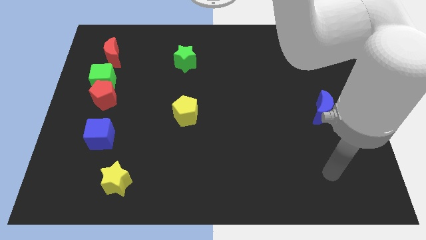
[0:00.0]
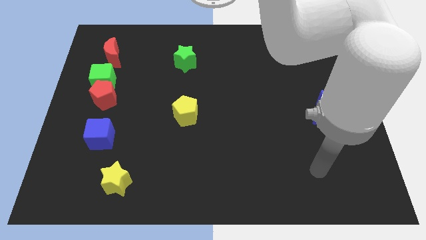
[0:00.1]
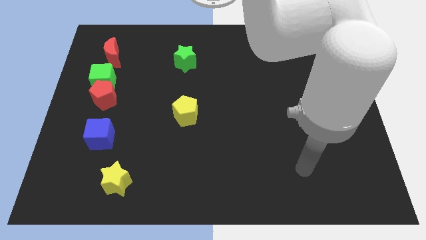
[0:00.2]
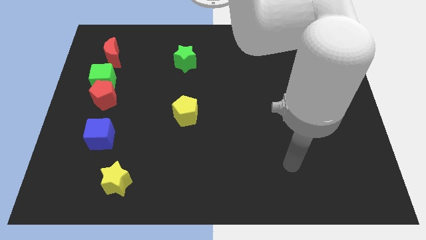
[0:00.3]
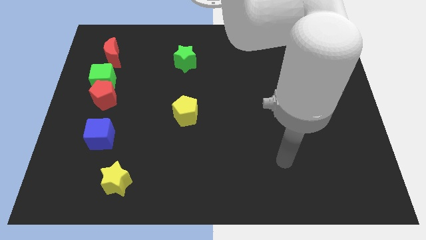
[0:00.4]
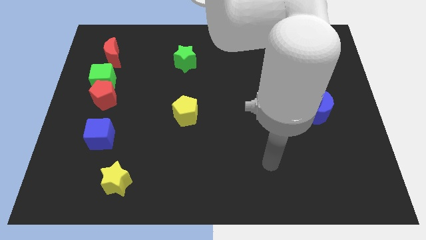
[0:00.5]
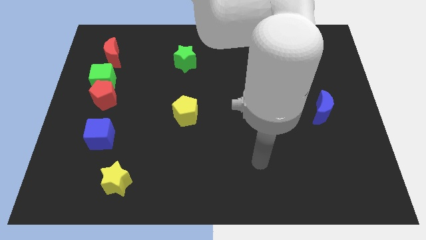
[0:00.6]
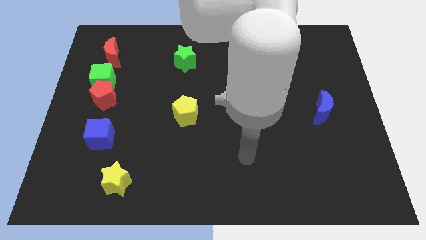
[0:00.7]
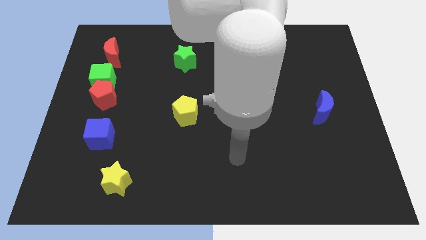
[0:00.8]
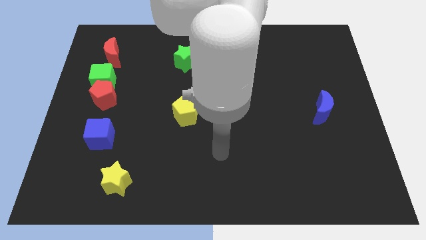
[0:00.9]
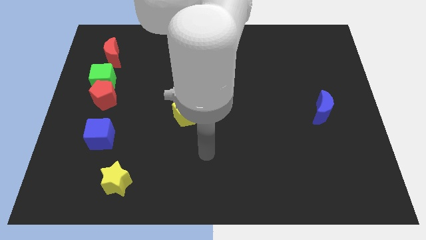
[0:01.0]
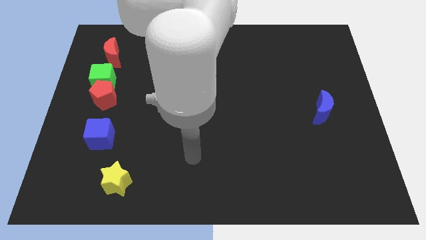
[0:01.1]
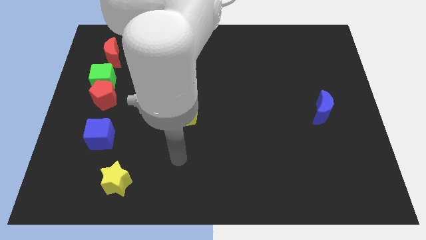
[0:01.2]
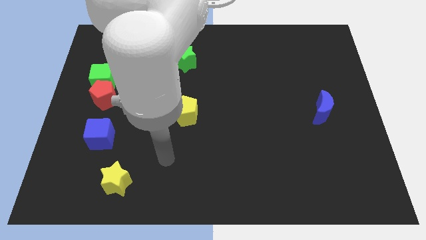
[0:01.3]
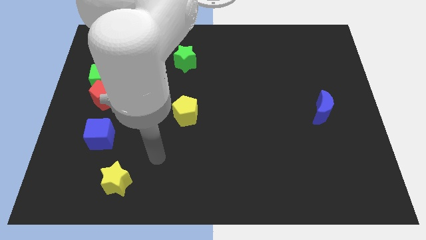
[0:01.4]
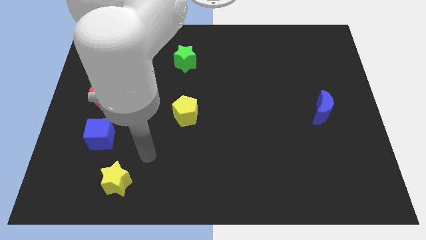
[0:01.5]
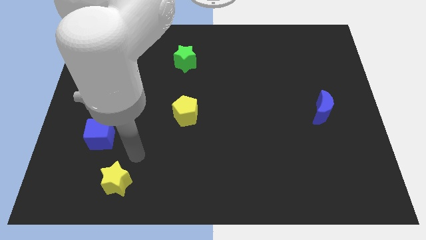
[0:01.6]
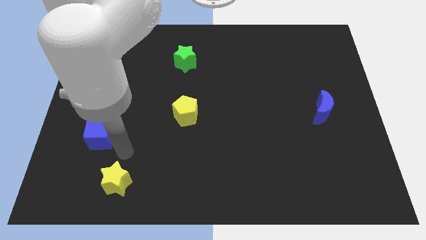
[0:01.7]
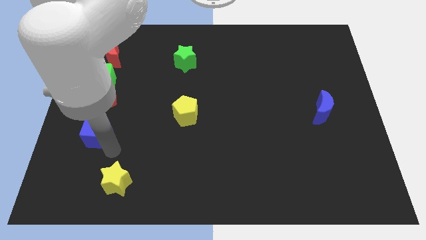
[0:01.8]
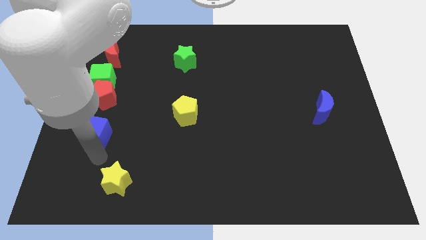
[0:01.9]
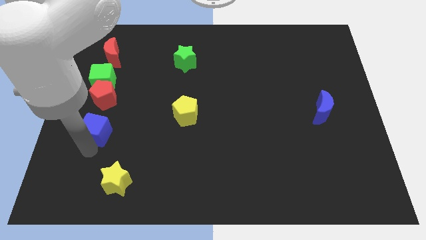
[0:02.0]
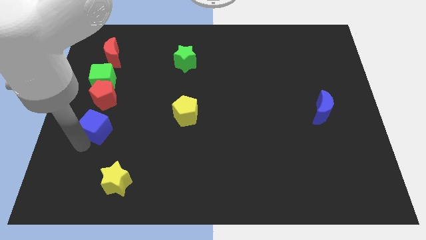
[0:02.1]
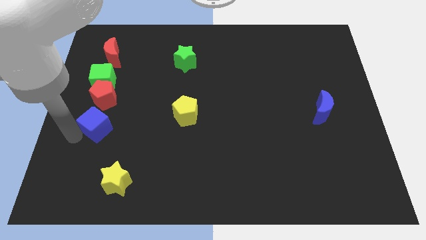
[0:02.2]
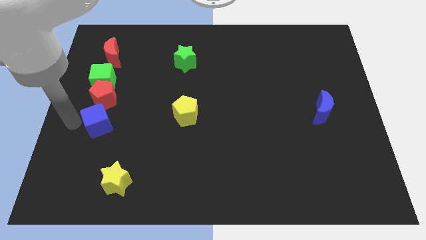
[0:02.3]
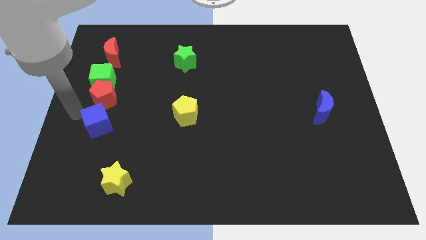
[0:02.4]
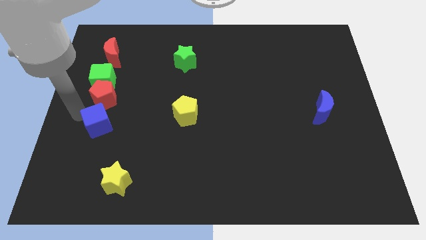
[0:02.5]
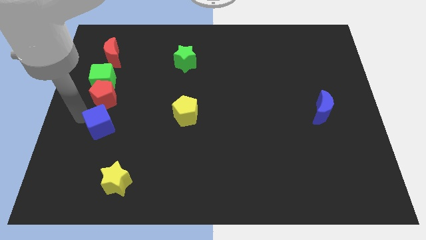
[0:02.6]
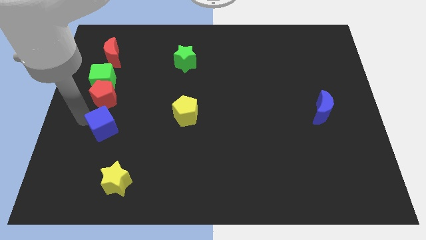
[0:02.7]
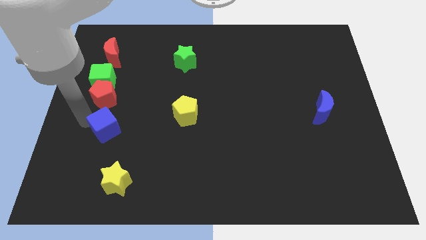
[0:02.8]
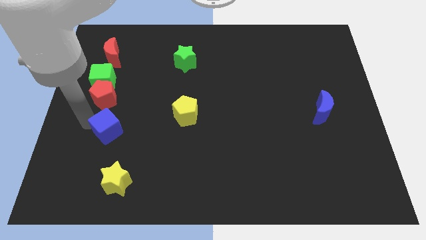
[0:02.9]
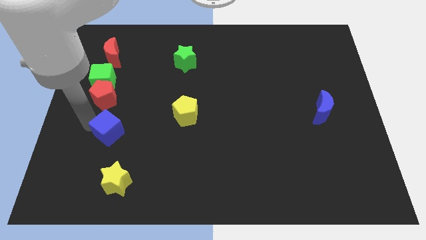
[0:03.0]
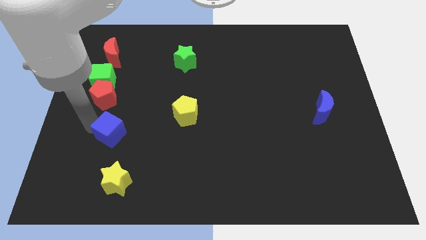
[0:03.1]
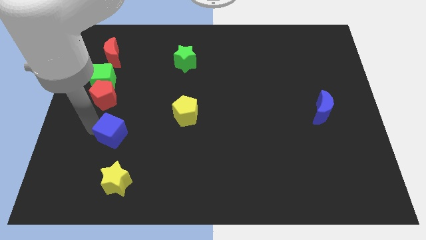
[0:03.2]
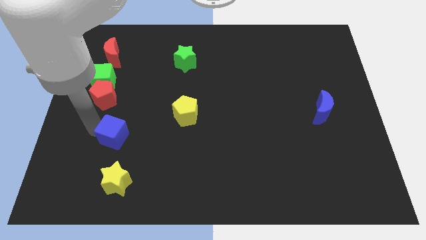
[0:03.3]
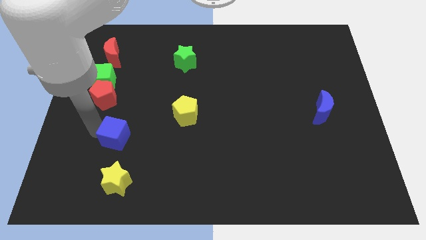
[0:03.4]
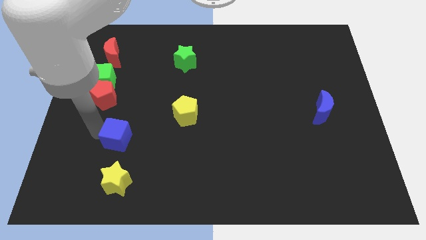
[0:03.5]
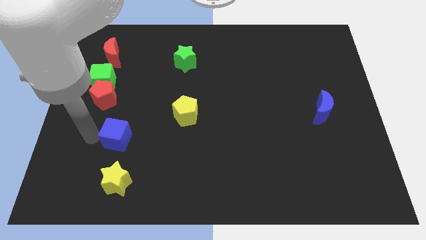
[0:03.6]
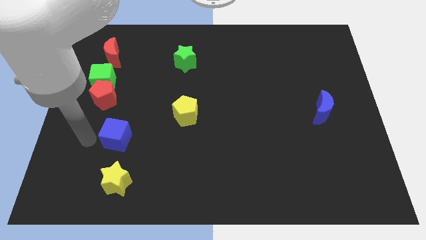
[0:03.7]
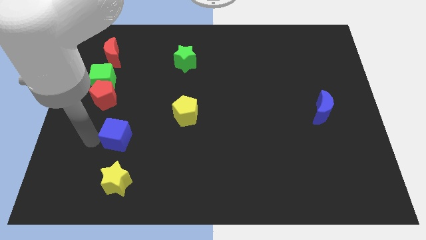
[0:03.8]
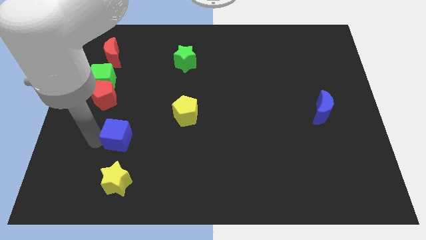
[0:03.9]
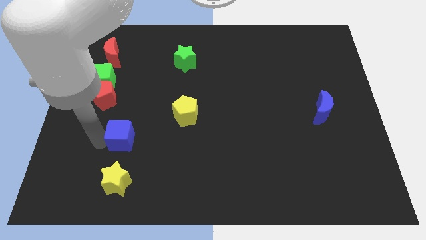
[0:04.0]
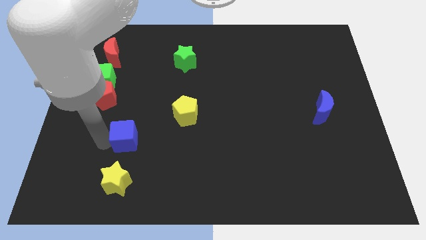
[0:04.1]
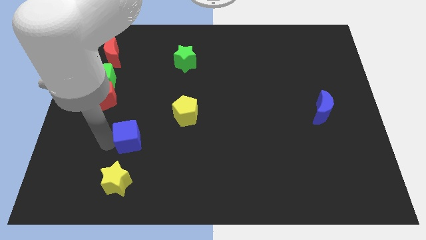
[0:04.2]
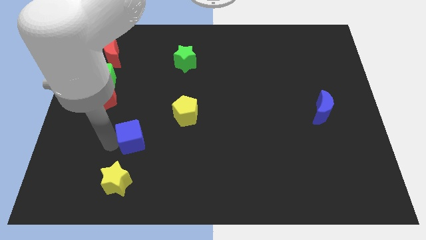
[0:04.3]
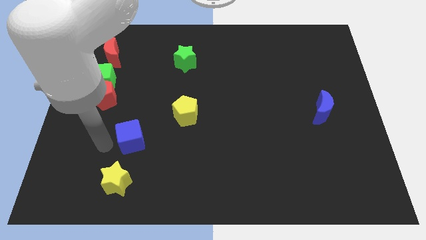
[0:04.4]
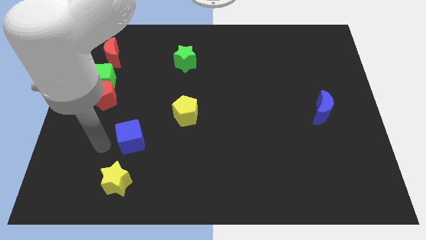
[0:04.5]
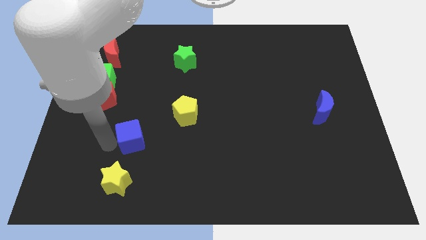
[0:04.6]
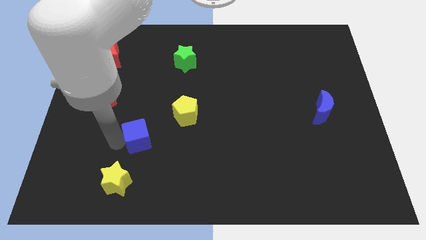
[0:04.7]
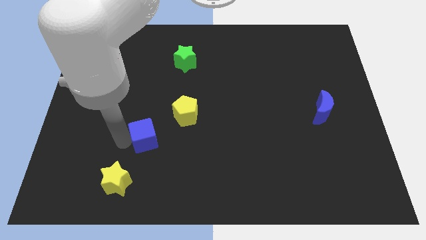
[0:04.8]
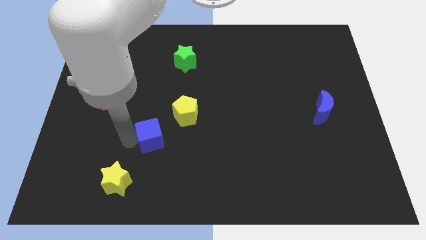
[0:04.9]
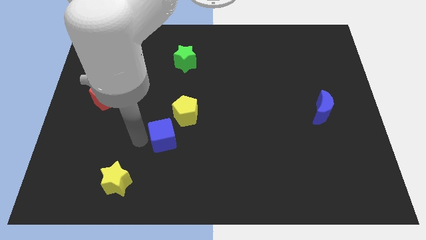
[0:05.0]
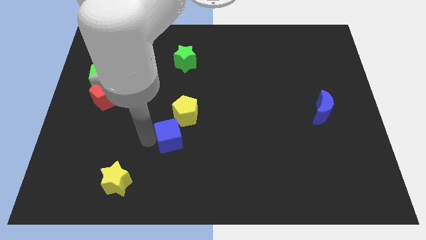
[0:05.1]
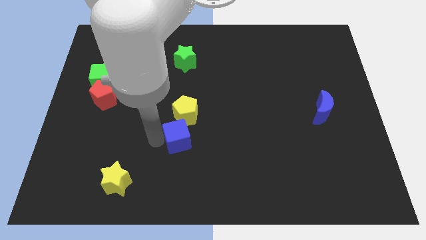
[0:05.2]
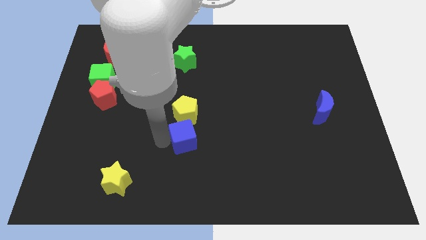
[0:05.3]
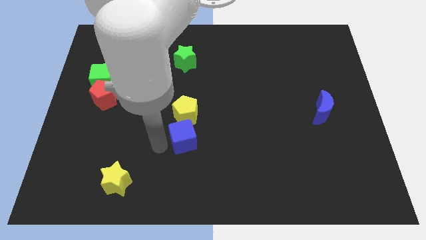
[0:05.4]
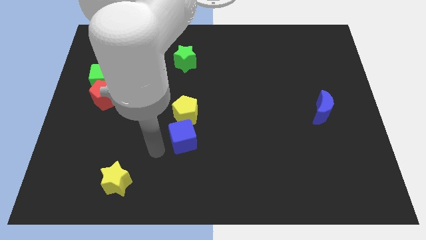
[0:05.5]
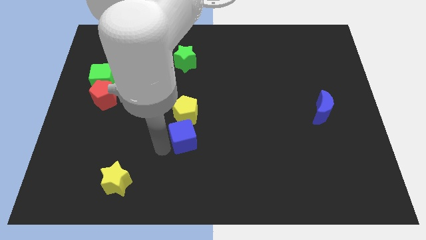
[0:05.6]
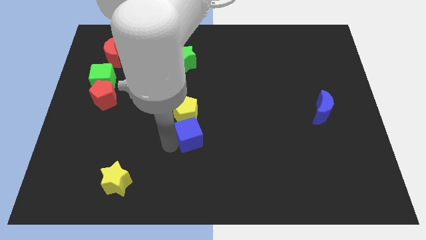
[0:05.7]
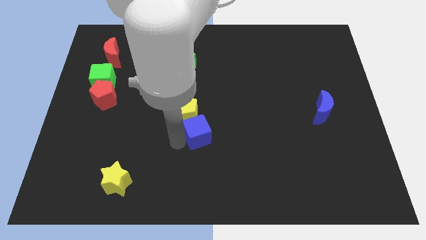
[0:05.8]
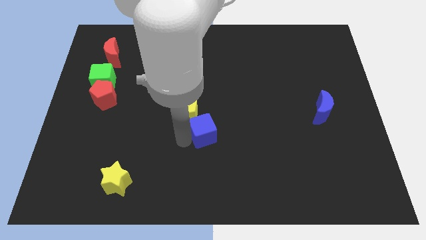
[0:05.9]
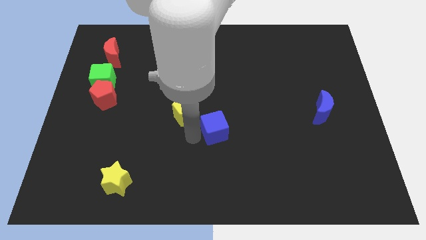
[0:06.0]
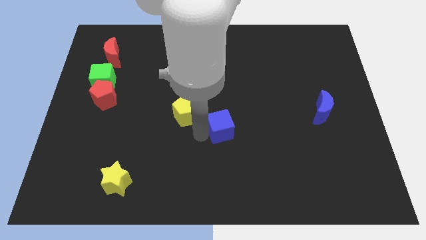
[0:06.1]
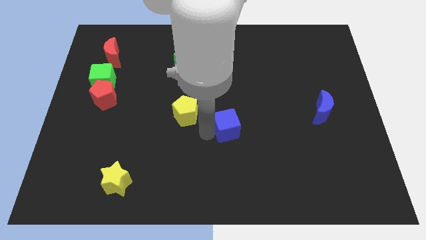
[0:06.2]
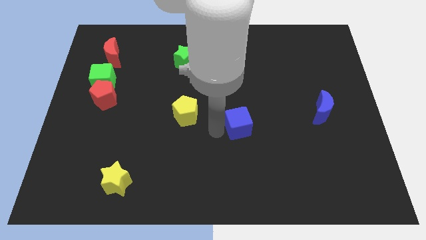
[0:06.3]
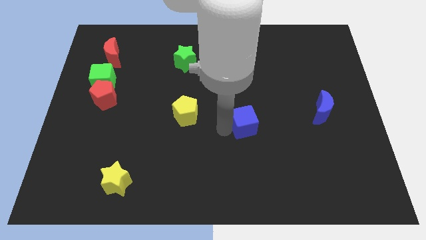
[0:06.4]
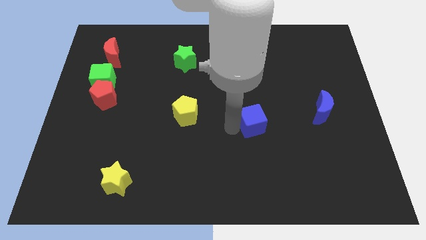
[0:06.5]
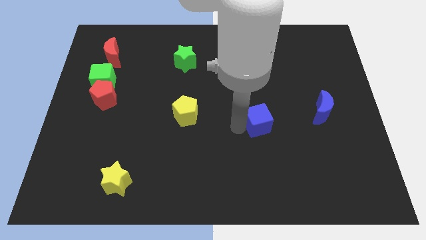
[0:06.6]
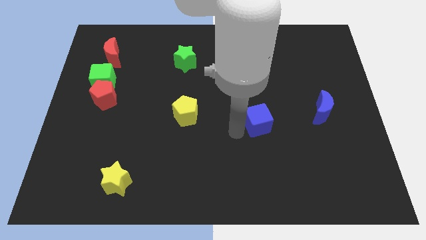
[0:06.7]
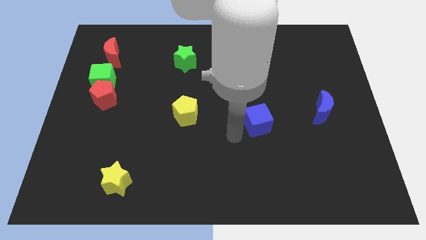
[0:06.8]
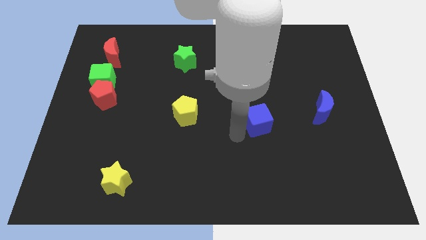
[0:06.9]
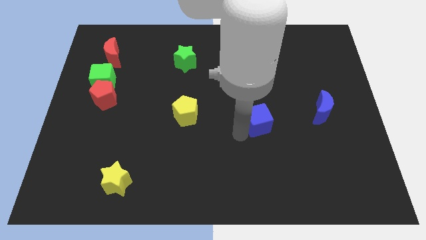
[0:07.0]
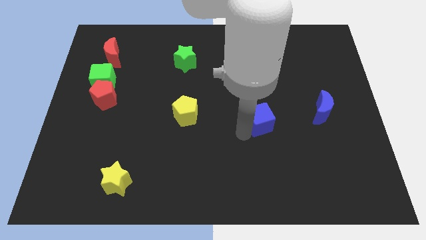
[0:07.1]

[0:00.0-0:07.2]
slide the blue cube to the left side of the blue moon
